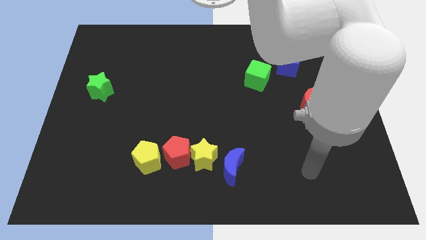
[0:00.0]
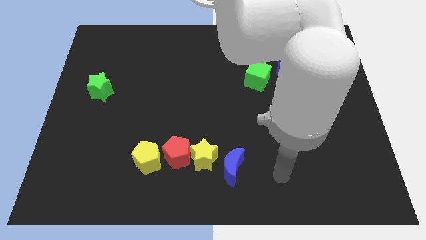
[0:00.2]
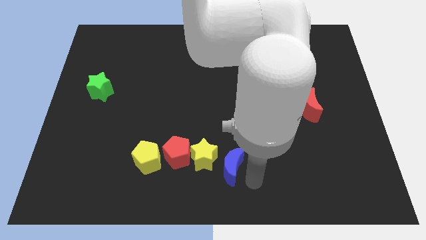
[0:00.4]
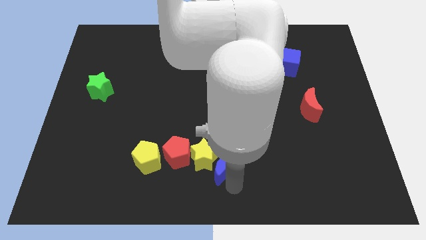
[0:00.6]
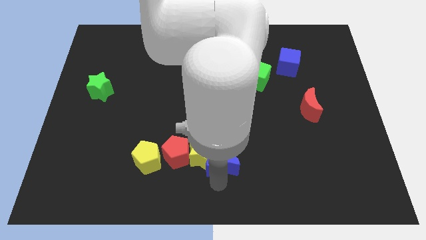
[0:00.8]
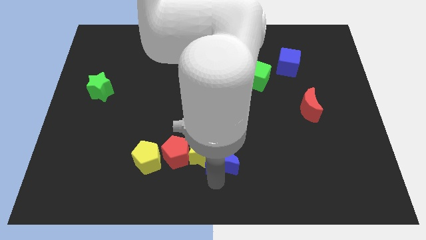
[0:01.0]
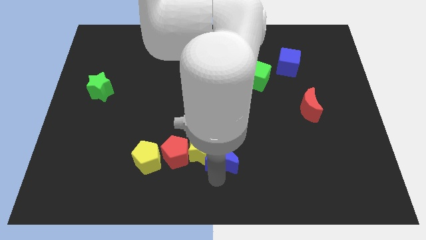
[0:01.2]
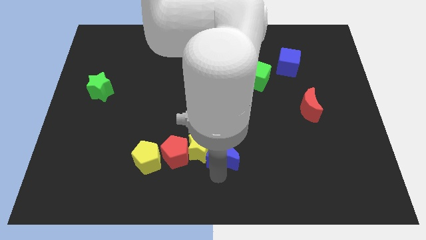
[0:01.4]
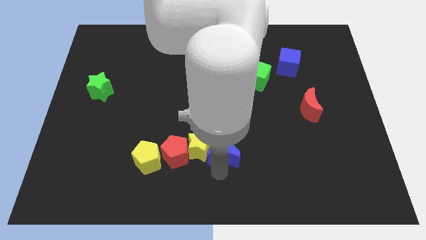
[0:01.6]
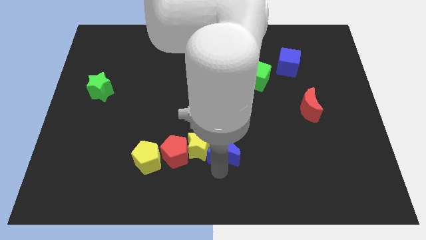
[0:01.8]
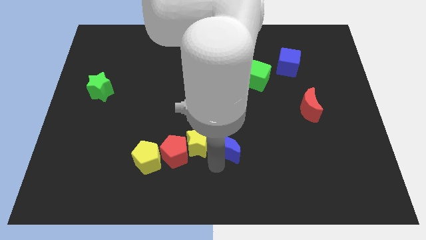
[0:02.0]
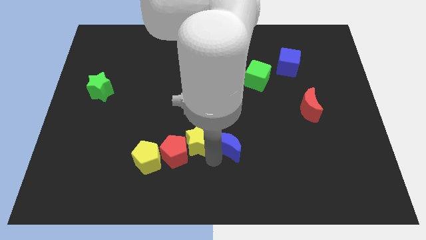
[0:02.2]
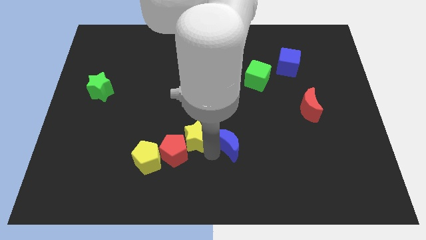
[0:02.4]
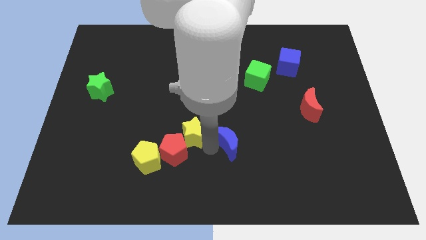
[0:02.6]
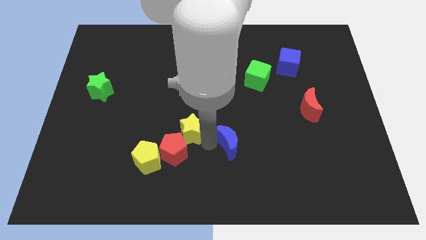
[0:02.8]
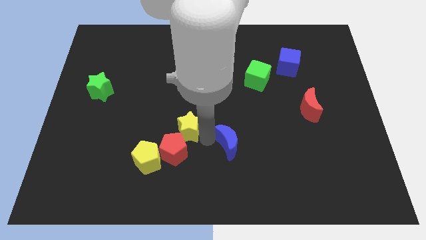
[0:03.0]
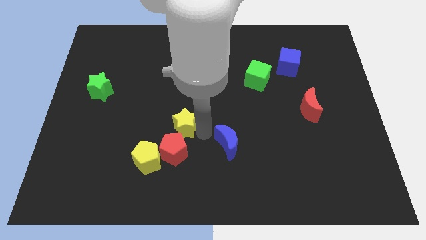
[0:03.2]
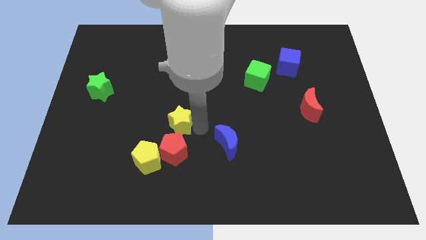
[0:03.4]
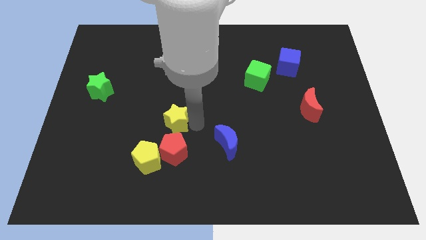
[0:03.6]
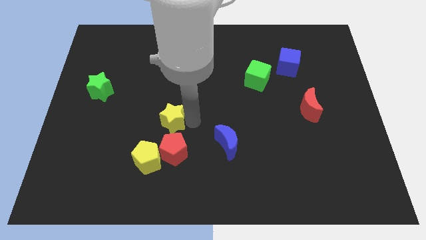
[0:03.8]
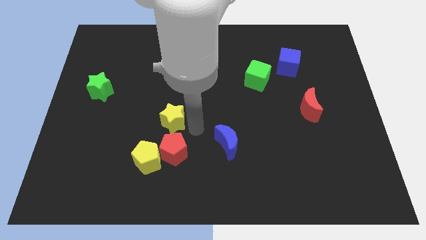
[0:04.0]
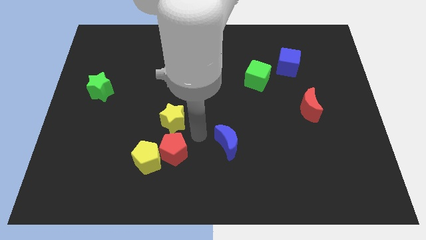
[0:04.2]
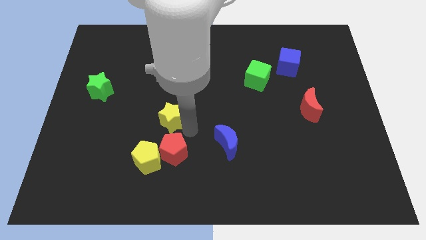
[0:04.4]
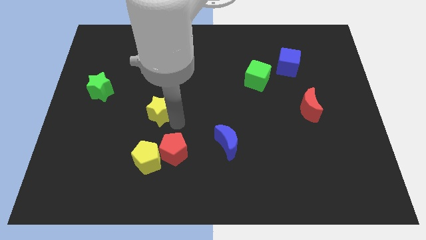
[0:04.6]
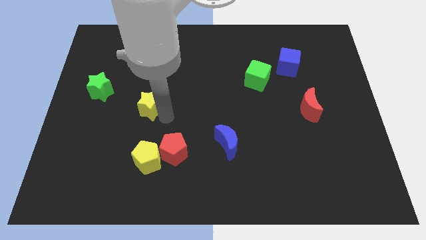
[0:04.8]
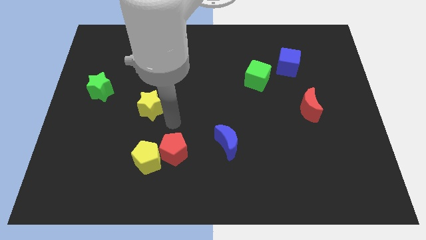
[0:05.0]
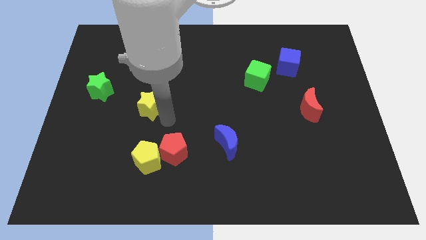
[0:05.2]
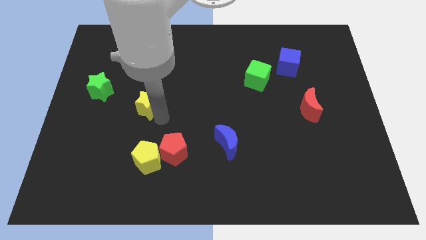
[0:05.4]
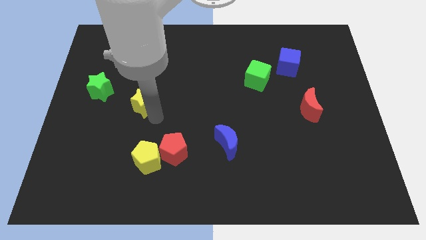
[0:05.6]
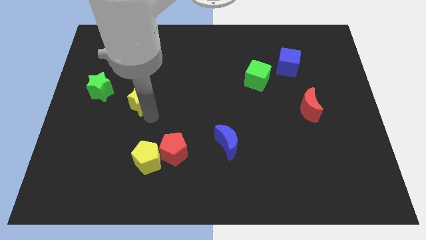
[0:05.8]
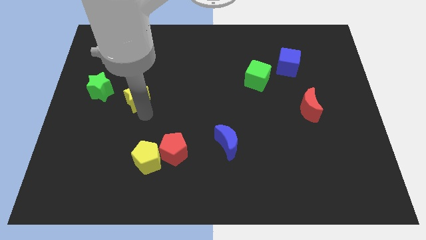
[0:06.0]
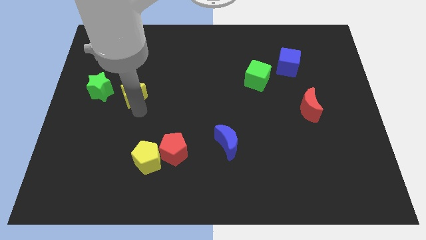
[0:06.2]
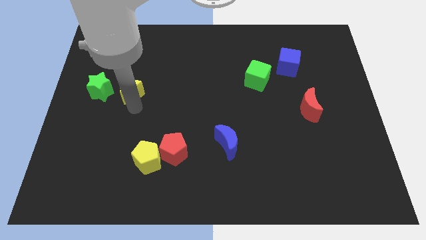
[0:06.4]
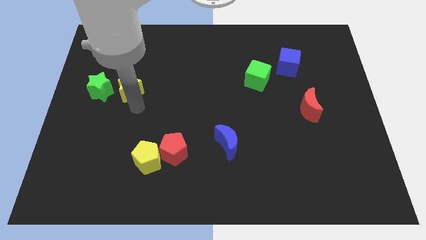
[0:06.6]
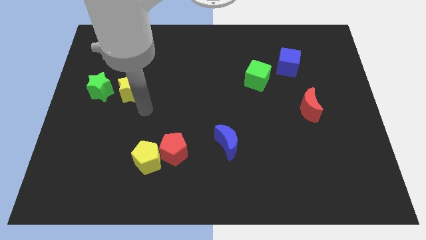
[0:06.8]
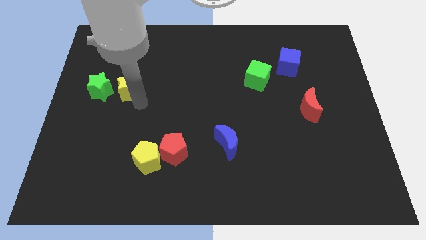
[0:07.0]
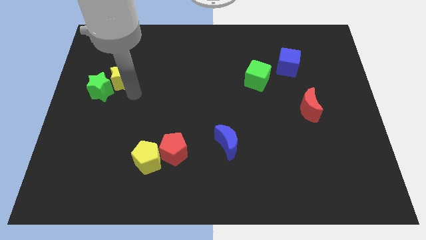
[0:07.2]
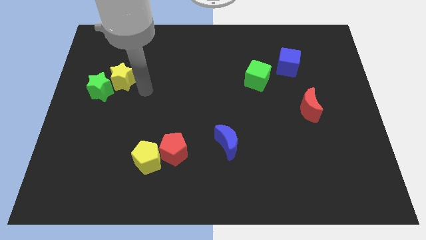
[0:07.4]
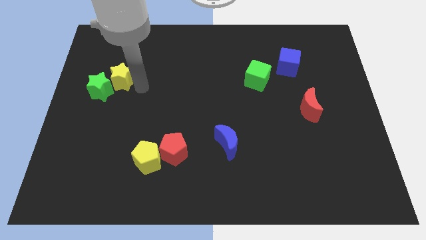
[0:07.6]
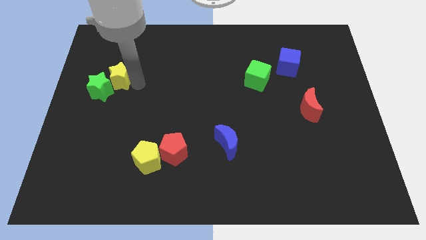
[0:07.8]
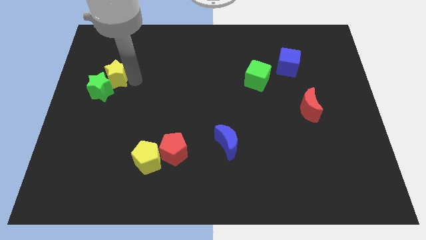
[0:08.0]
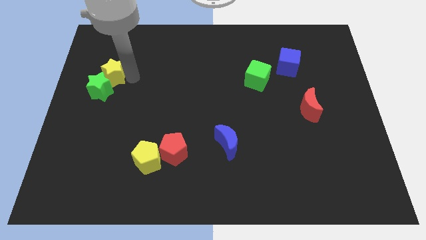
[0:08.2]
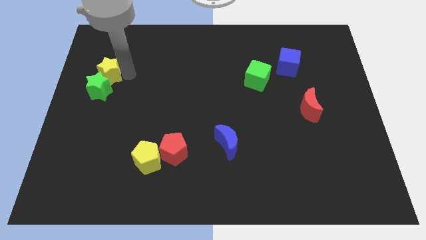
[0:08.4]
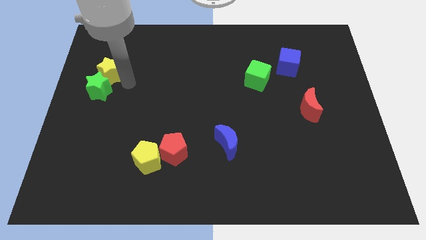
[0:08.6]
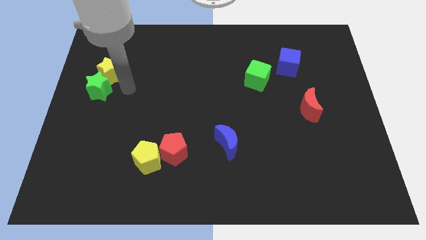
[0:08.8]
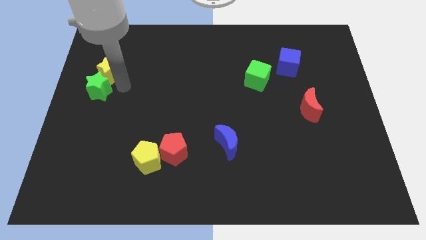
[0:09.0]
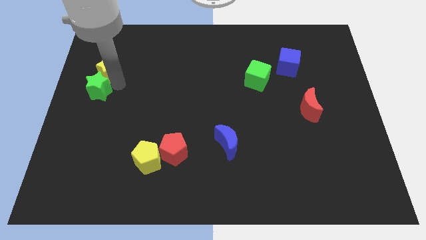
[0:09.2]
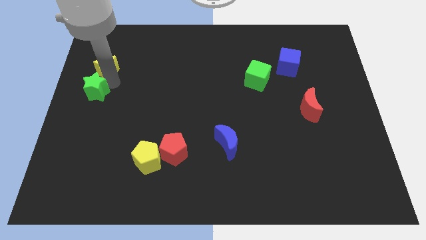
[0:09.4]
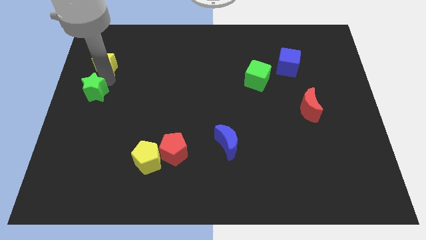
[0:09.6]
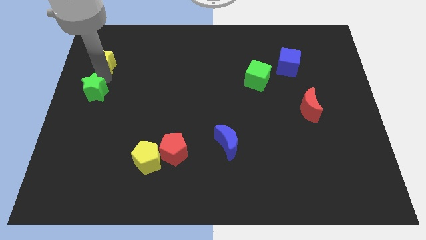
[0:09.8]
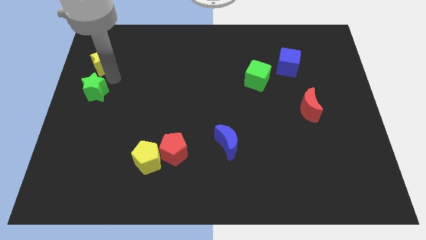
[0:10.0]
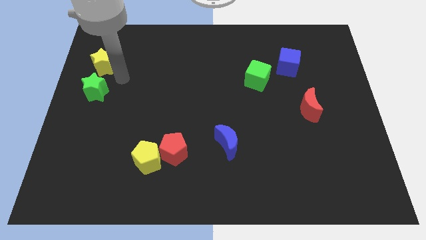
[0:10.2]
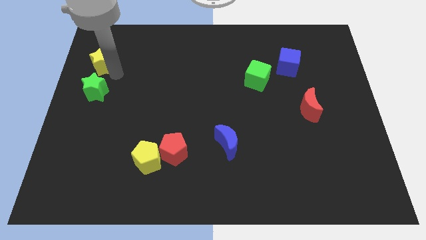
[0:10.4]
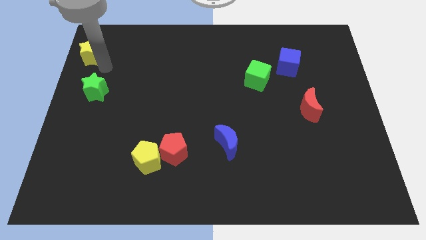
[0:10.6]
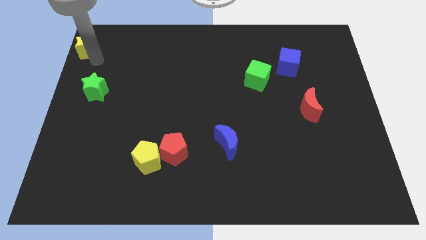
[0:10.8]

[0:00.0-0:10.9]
push the yellow star to the top left corner
